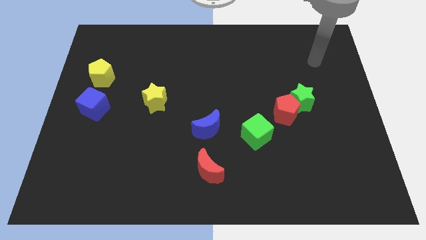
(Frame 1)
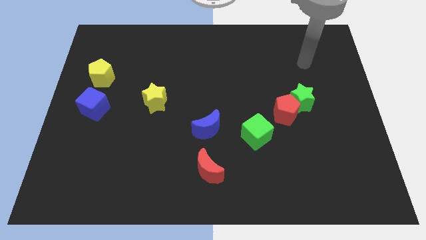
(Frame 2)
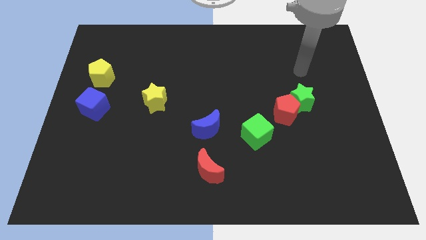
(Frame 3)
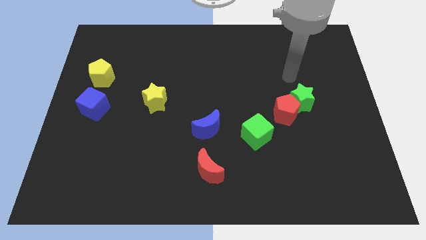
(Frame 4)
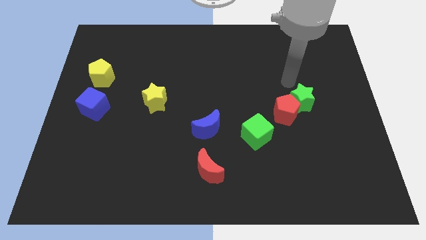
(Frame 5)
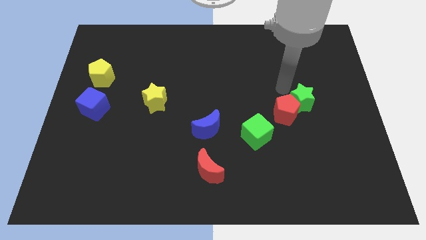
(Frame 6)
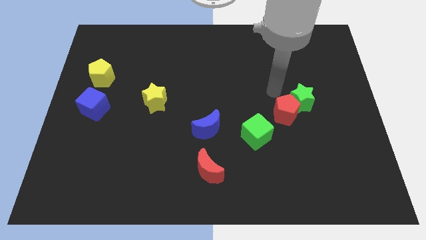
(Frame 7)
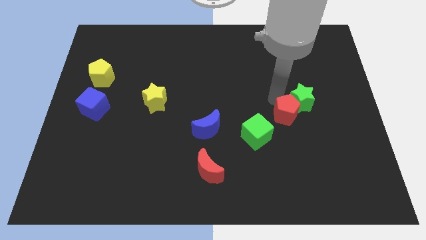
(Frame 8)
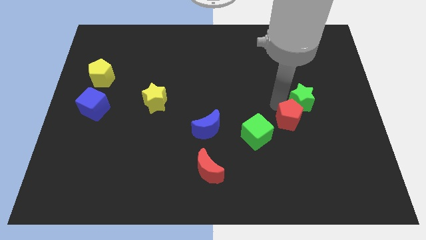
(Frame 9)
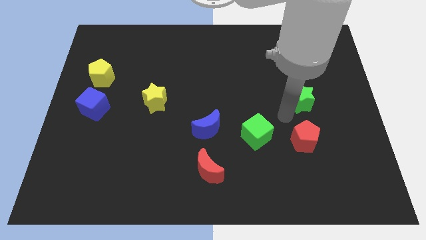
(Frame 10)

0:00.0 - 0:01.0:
pull the green star apart from the red pentagon

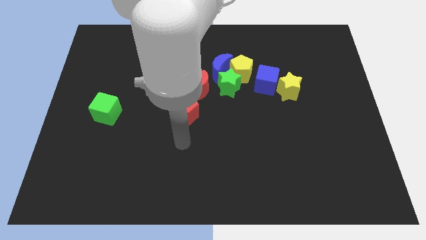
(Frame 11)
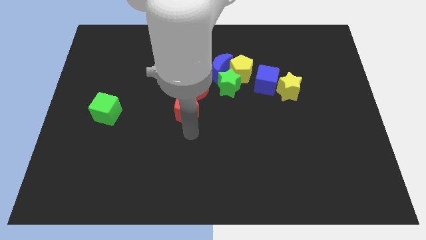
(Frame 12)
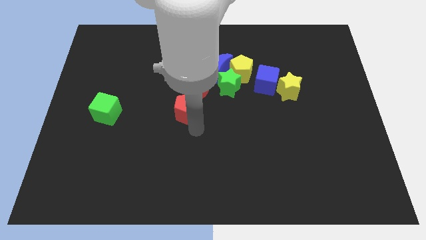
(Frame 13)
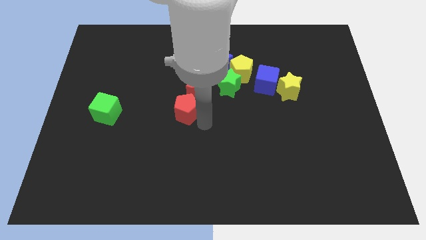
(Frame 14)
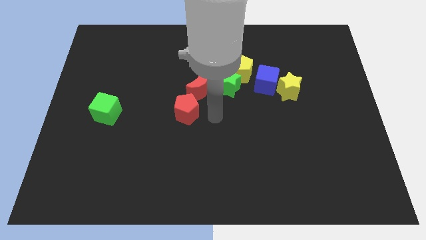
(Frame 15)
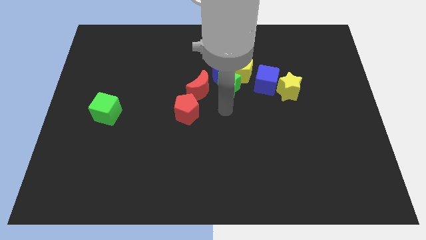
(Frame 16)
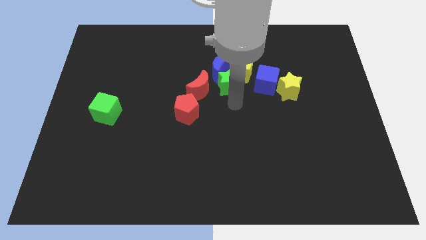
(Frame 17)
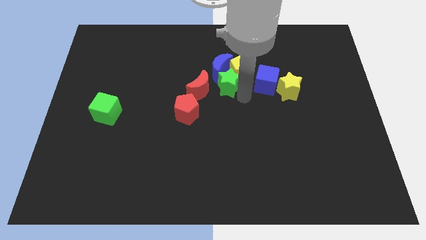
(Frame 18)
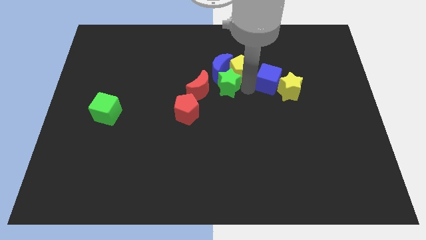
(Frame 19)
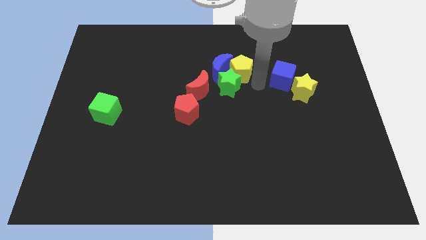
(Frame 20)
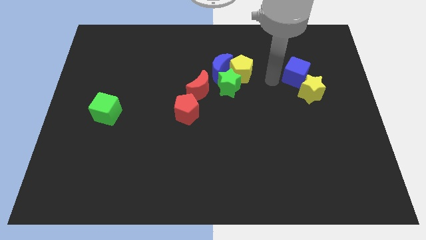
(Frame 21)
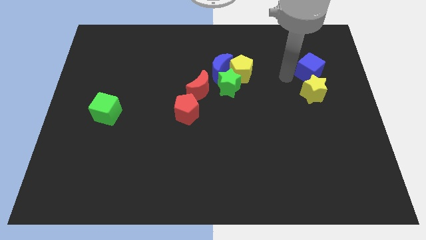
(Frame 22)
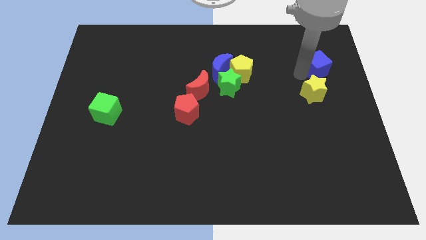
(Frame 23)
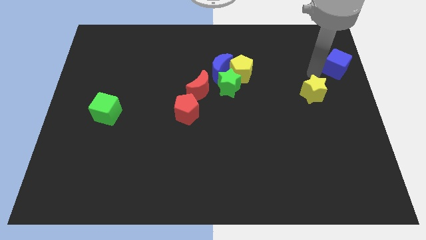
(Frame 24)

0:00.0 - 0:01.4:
pull the yellow star apart from the blue cube

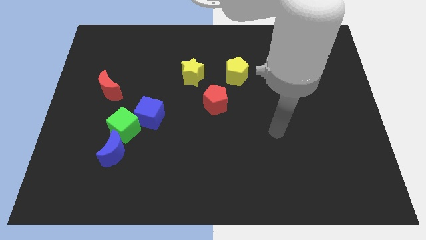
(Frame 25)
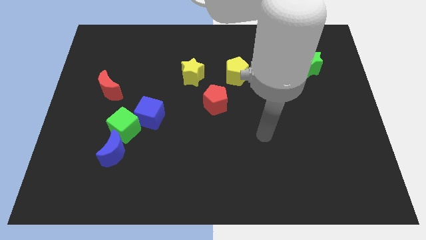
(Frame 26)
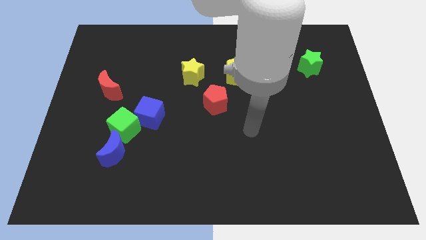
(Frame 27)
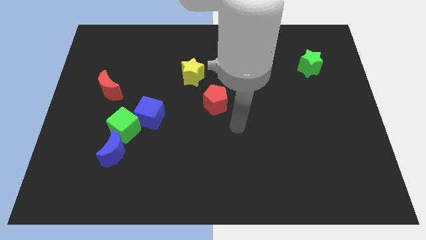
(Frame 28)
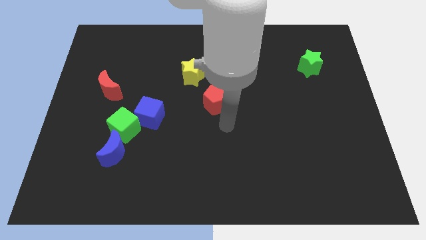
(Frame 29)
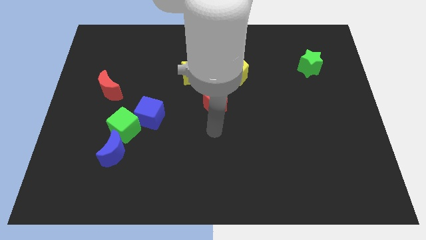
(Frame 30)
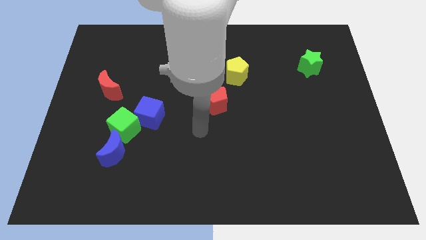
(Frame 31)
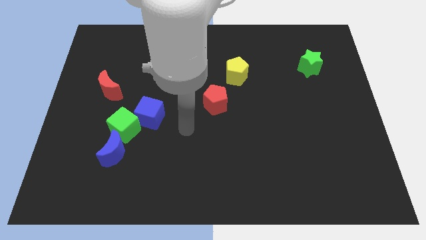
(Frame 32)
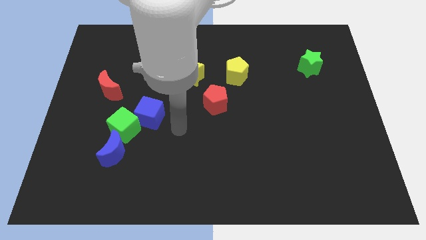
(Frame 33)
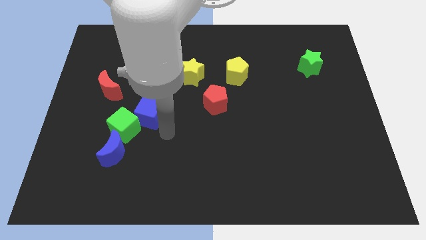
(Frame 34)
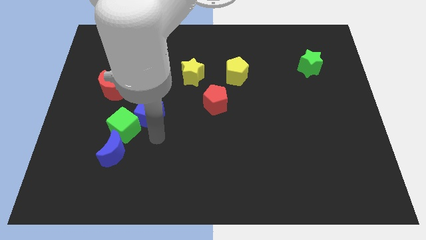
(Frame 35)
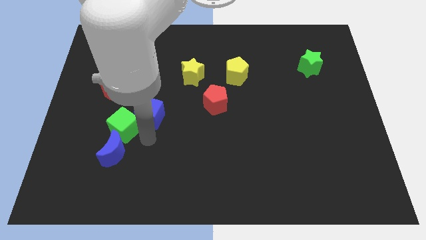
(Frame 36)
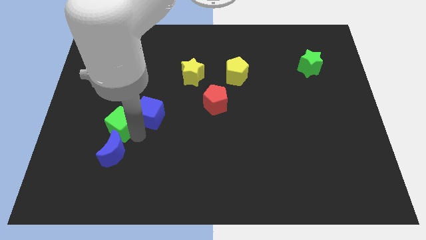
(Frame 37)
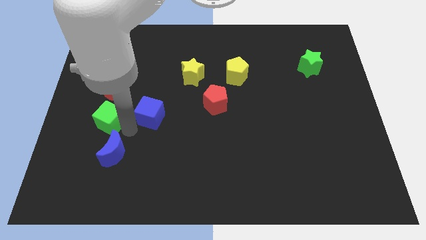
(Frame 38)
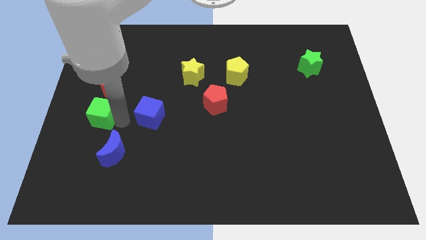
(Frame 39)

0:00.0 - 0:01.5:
separate the blue cube from the green cube

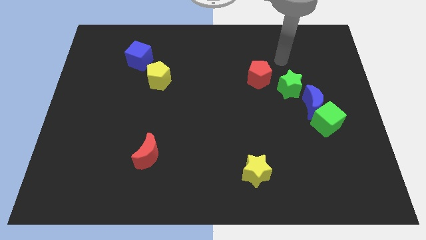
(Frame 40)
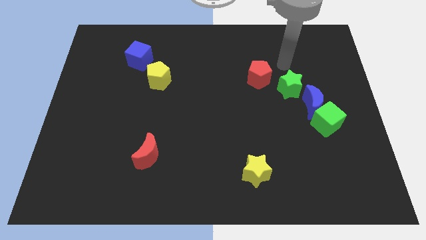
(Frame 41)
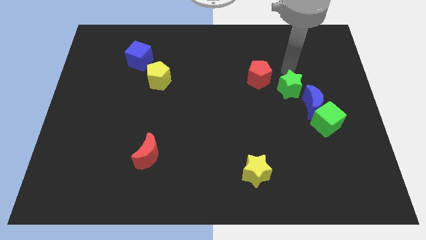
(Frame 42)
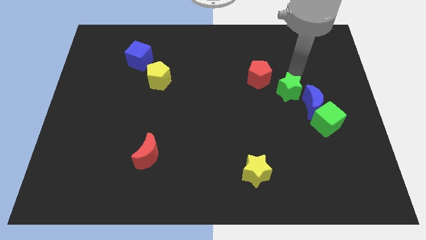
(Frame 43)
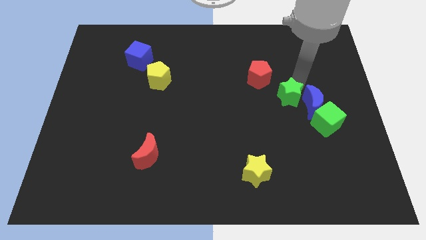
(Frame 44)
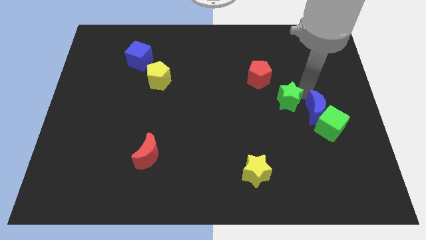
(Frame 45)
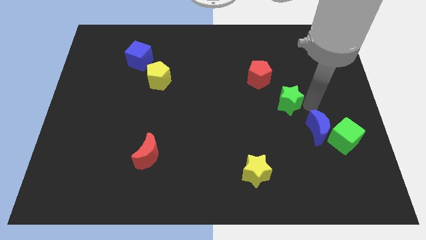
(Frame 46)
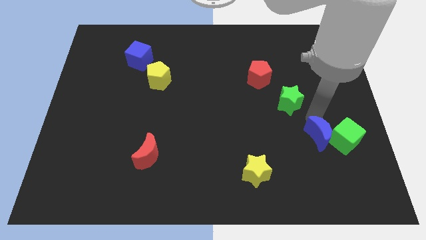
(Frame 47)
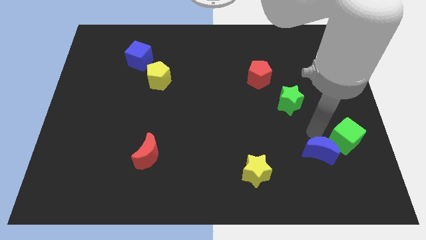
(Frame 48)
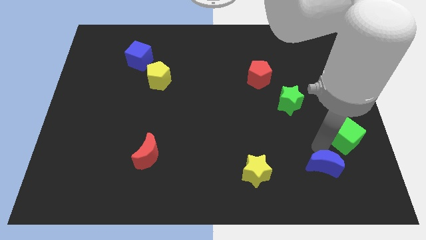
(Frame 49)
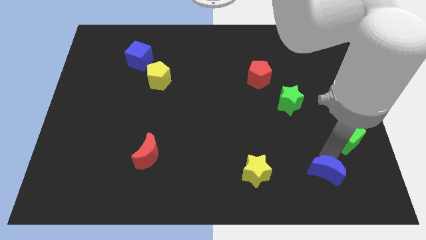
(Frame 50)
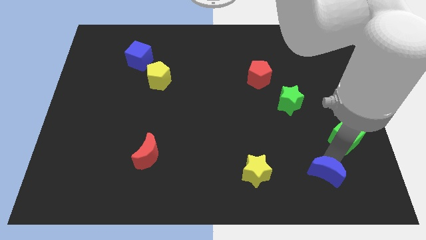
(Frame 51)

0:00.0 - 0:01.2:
separate the green cube from the blue moon

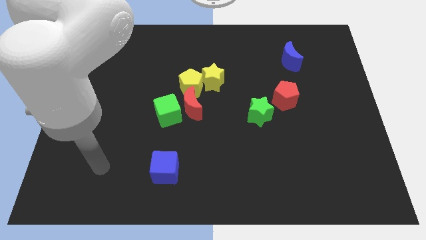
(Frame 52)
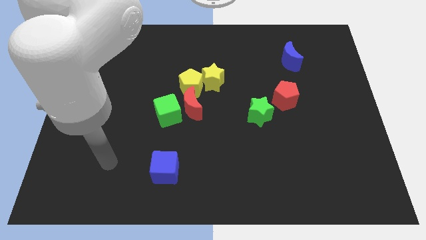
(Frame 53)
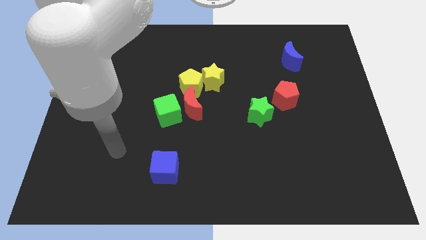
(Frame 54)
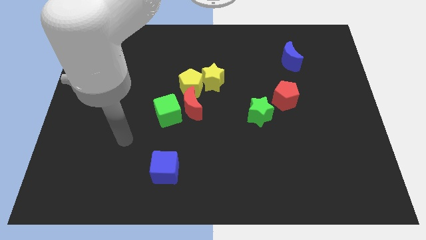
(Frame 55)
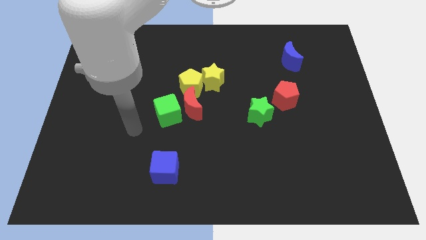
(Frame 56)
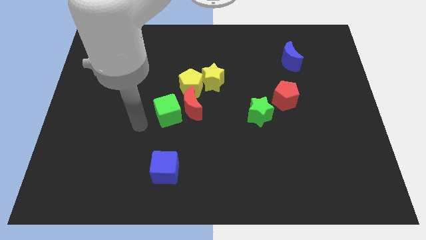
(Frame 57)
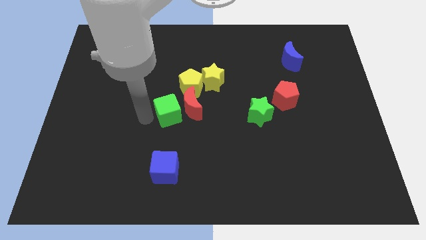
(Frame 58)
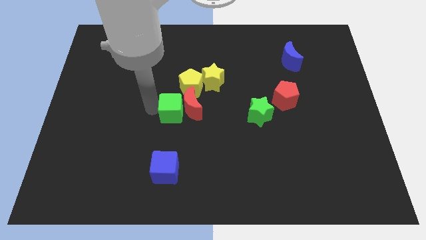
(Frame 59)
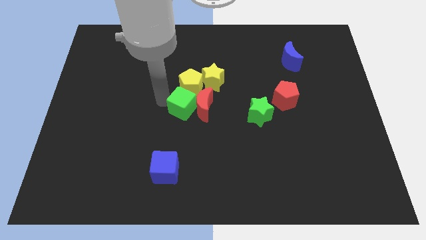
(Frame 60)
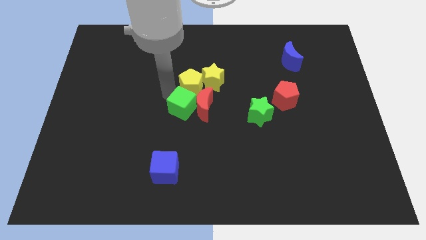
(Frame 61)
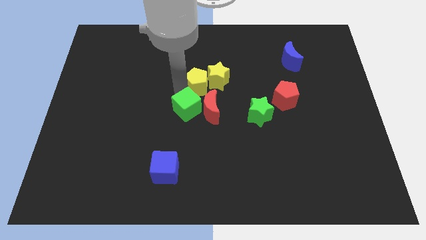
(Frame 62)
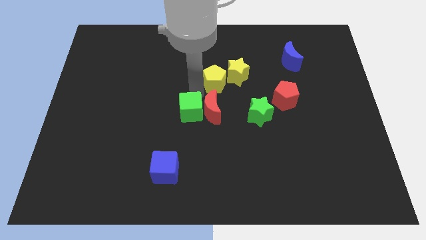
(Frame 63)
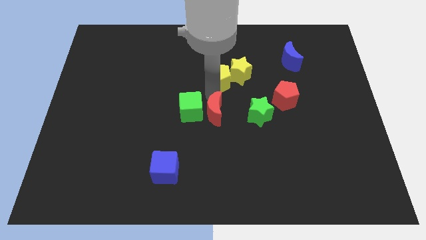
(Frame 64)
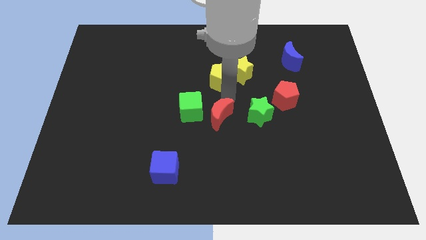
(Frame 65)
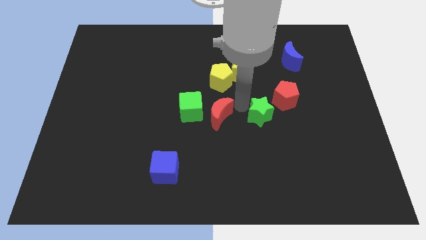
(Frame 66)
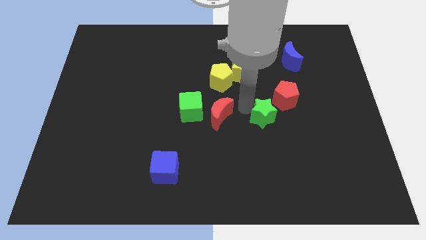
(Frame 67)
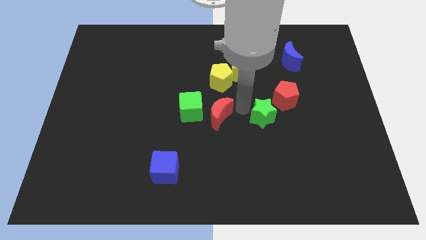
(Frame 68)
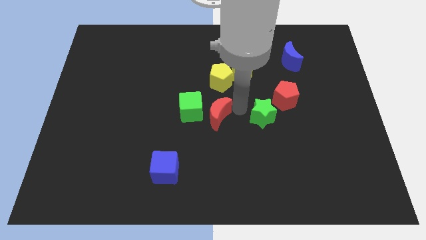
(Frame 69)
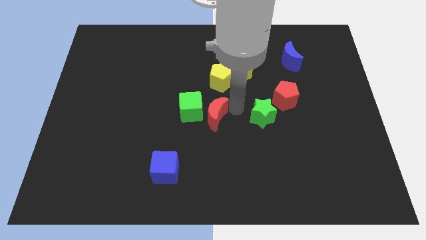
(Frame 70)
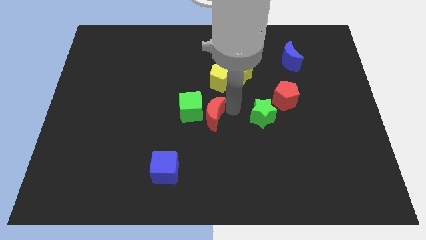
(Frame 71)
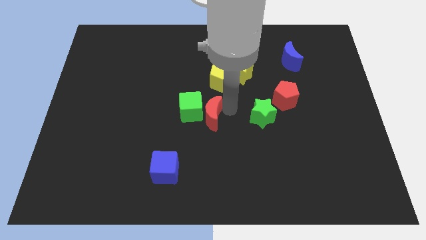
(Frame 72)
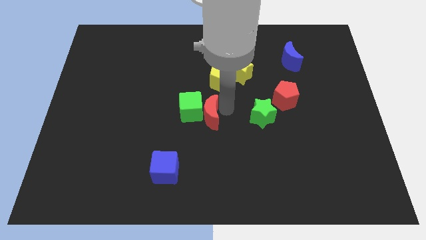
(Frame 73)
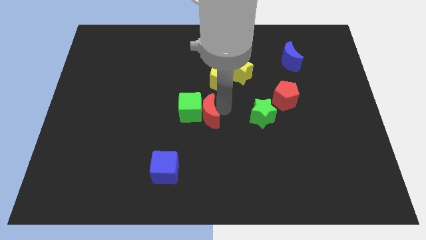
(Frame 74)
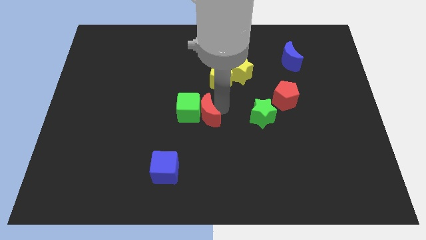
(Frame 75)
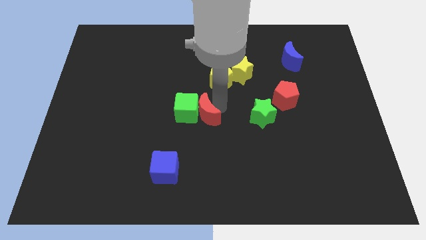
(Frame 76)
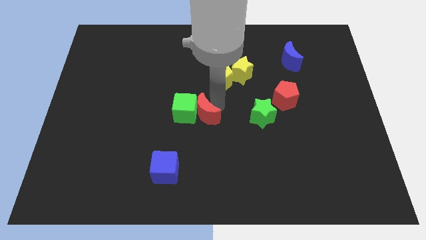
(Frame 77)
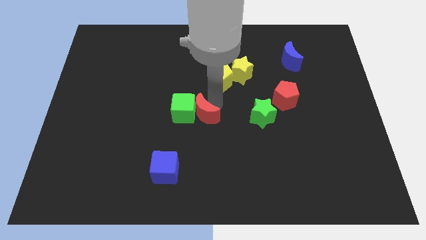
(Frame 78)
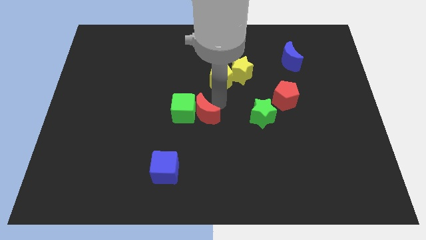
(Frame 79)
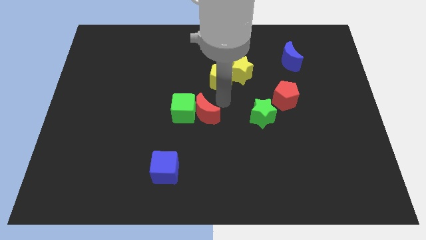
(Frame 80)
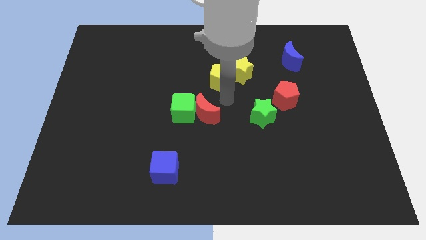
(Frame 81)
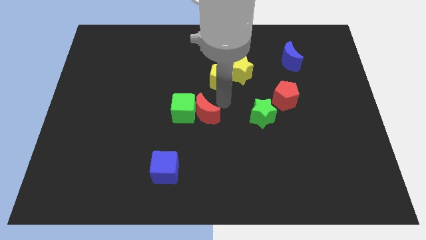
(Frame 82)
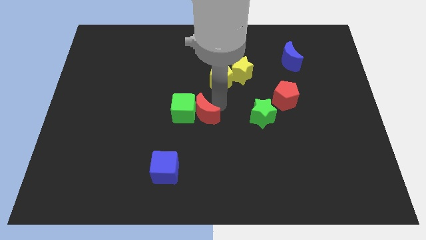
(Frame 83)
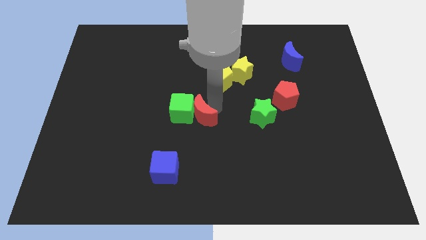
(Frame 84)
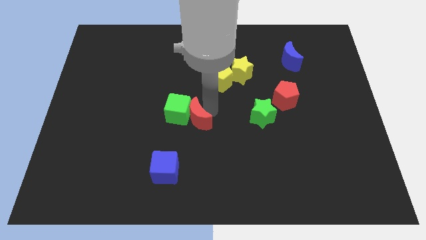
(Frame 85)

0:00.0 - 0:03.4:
separate the red moon from the green cube, yellow pentagon, and yellow star

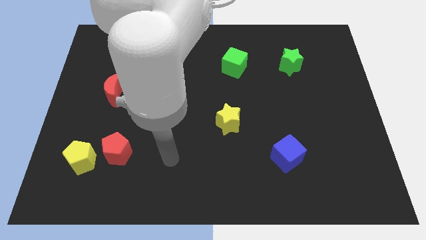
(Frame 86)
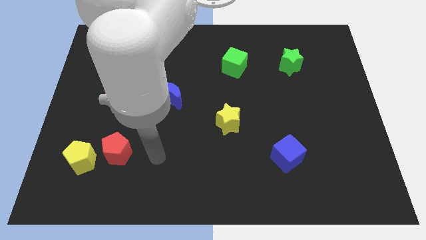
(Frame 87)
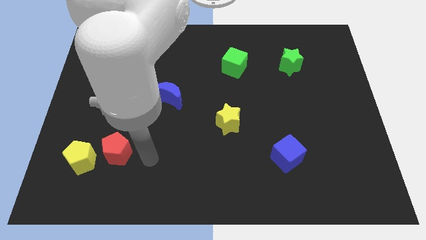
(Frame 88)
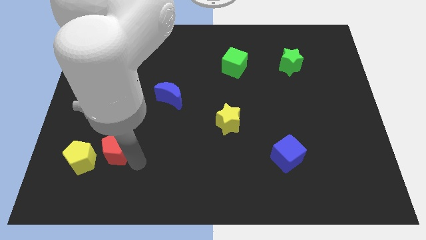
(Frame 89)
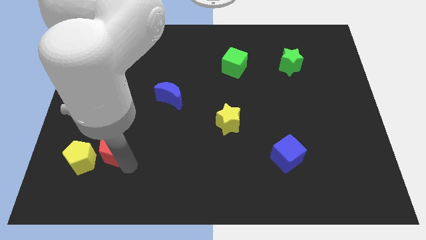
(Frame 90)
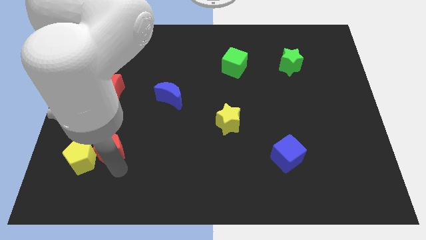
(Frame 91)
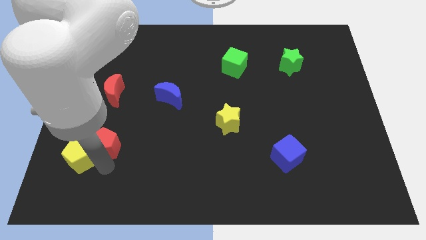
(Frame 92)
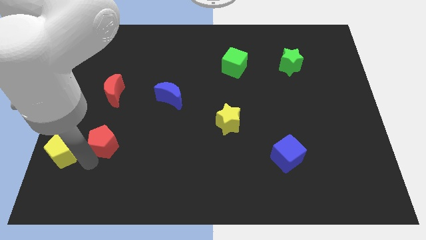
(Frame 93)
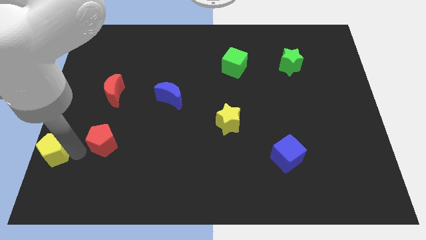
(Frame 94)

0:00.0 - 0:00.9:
move the red pentagon away from the yellow pentagon
